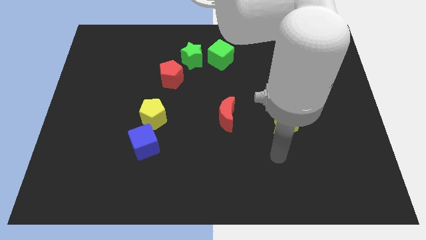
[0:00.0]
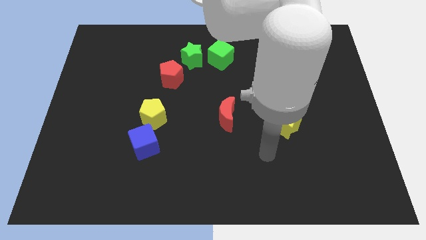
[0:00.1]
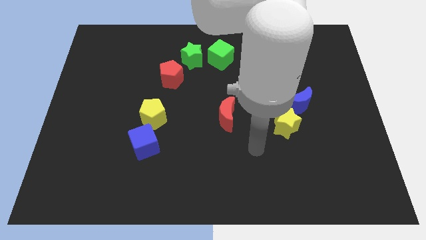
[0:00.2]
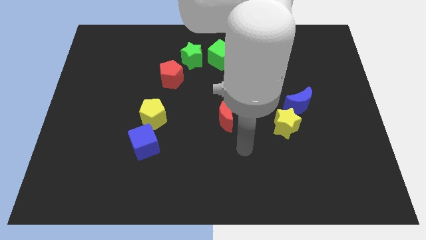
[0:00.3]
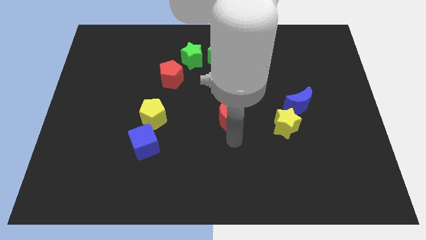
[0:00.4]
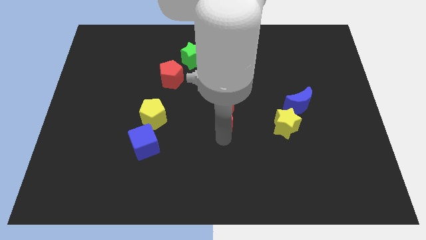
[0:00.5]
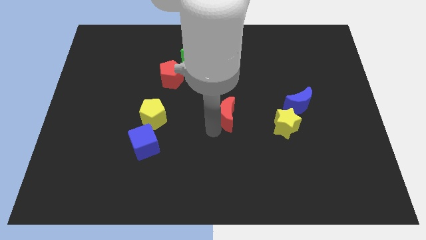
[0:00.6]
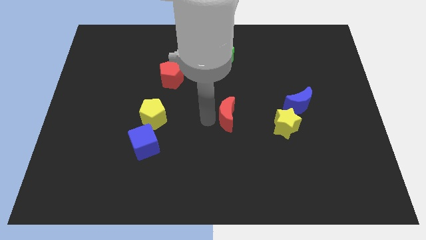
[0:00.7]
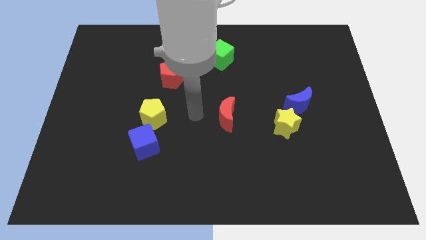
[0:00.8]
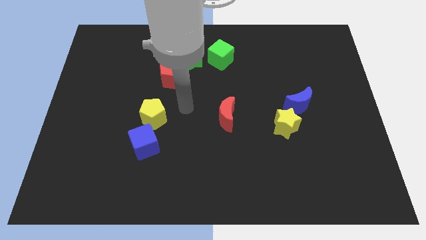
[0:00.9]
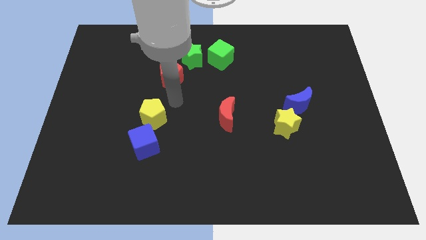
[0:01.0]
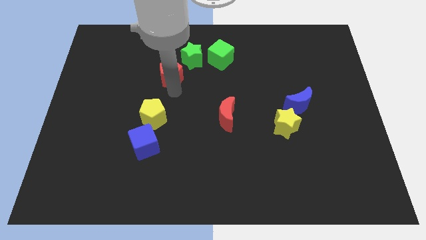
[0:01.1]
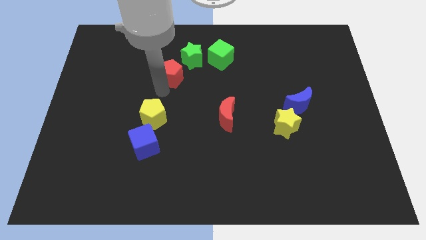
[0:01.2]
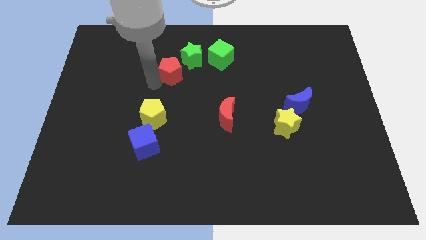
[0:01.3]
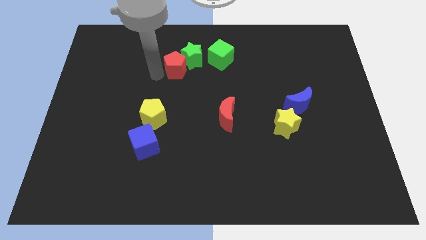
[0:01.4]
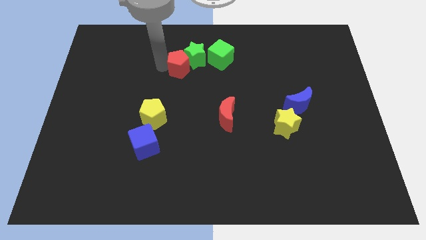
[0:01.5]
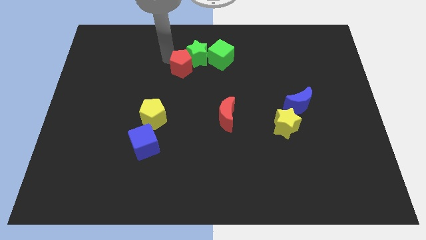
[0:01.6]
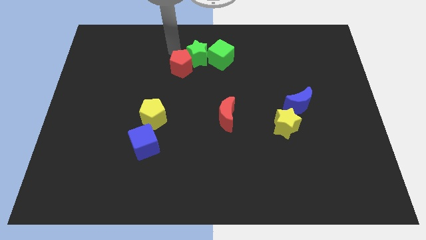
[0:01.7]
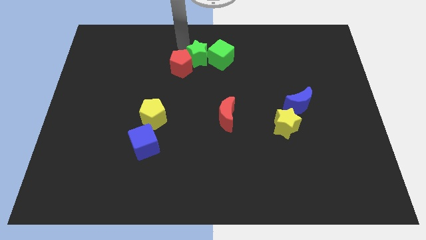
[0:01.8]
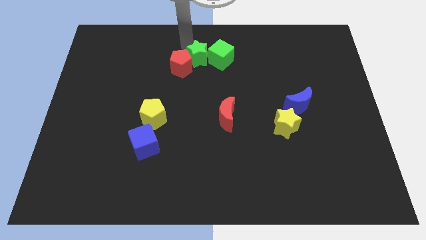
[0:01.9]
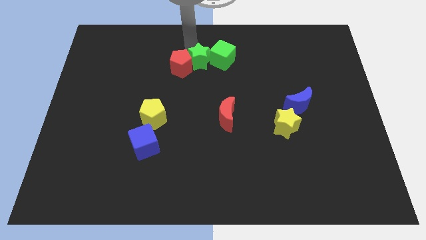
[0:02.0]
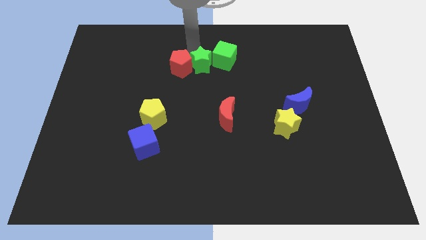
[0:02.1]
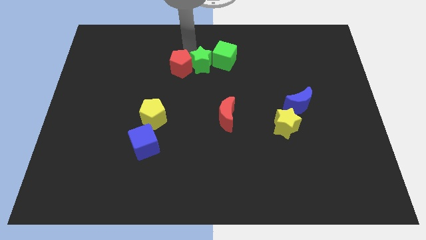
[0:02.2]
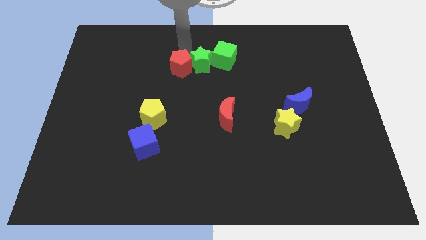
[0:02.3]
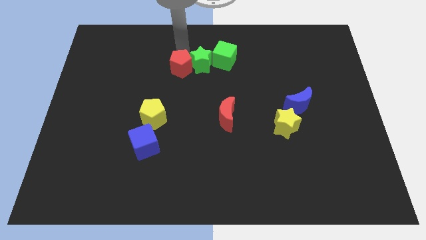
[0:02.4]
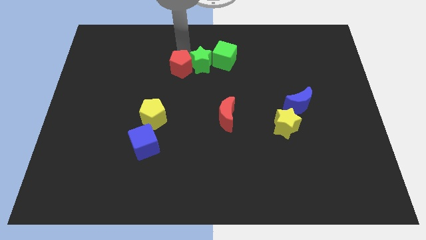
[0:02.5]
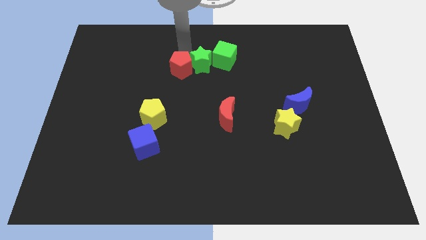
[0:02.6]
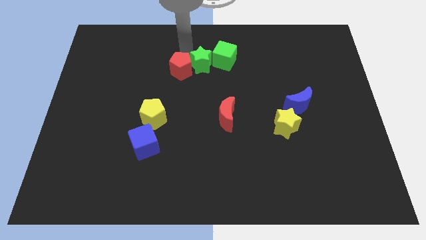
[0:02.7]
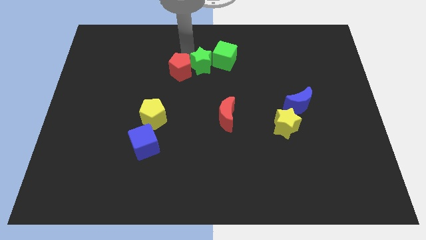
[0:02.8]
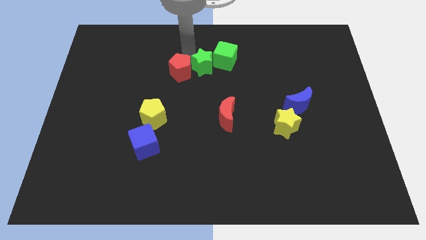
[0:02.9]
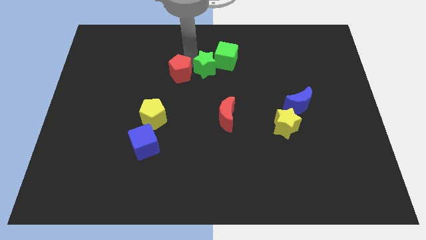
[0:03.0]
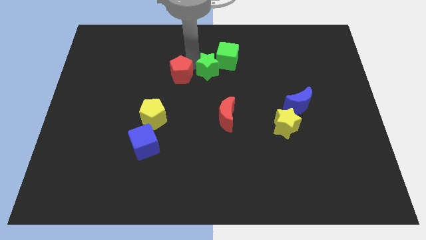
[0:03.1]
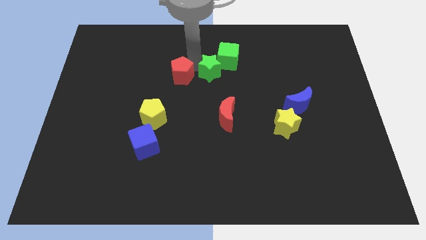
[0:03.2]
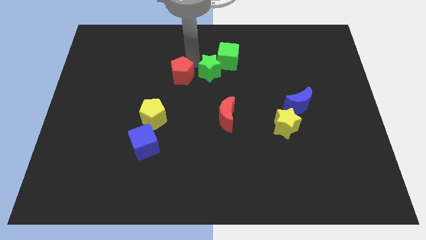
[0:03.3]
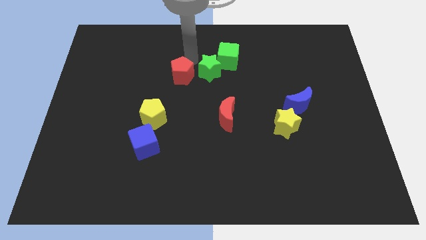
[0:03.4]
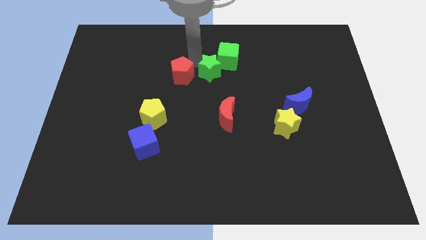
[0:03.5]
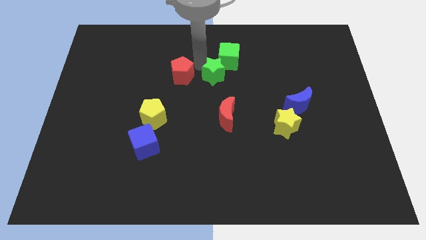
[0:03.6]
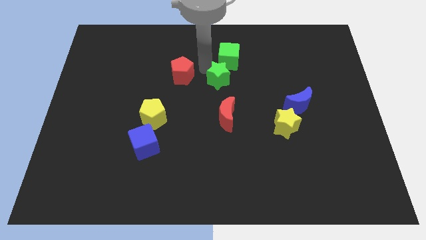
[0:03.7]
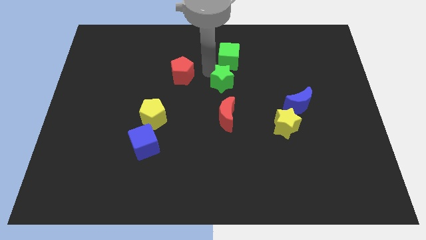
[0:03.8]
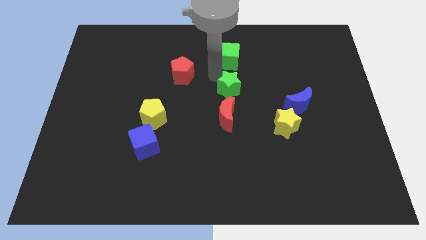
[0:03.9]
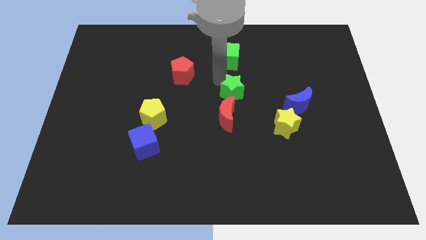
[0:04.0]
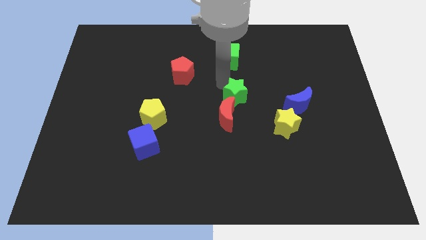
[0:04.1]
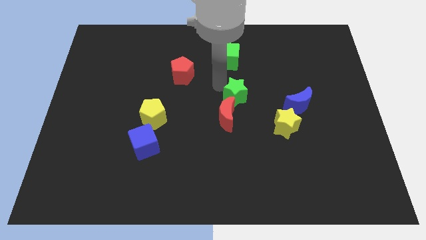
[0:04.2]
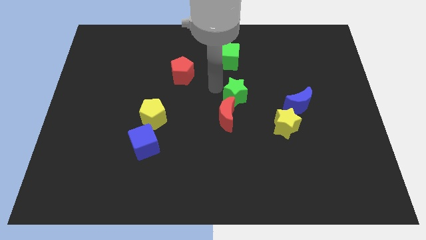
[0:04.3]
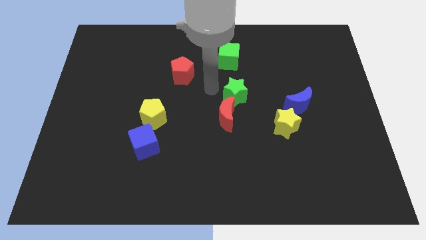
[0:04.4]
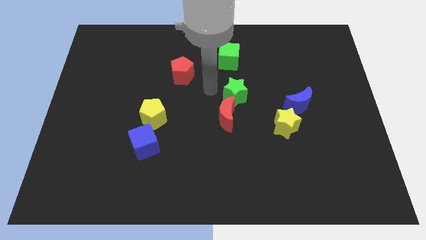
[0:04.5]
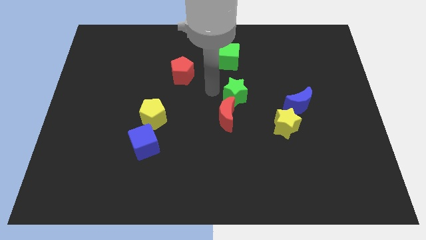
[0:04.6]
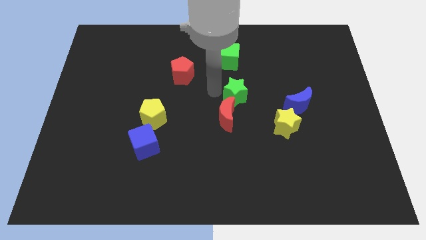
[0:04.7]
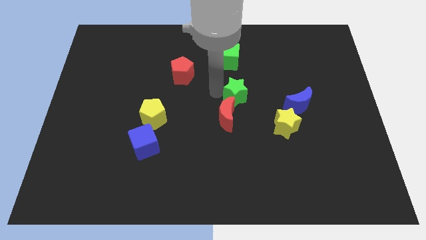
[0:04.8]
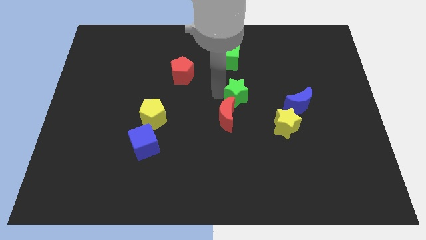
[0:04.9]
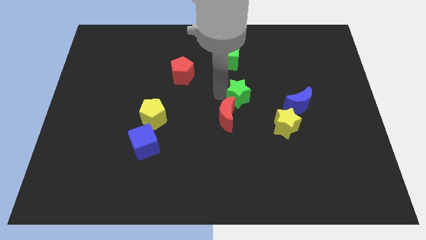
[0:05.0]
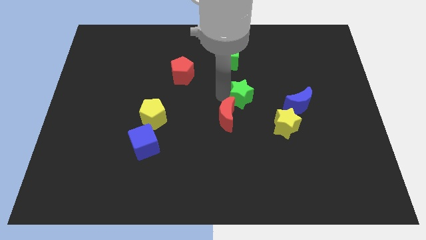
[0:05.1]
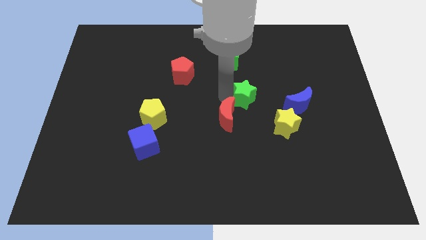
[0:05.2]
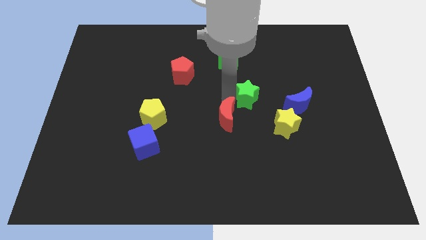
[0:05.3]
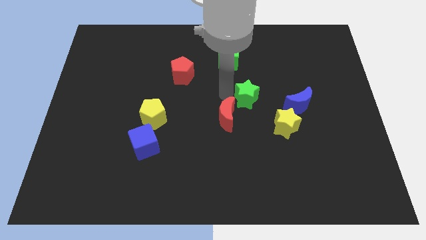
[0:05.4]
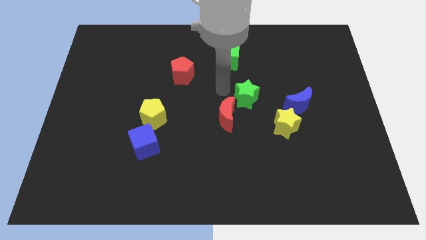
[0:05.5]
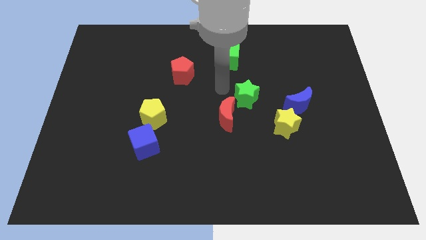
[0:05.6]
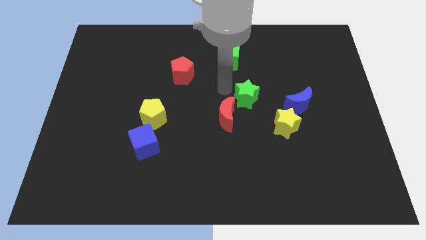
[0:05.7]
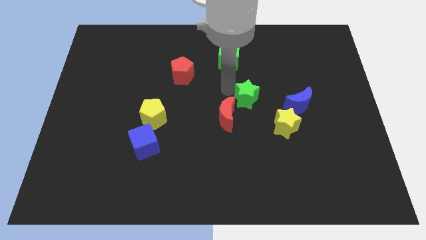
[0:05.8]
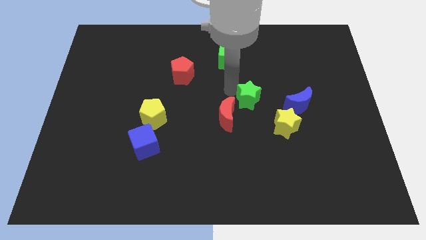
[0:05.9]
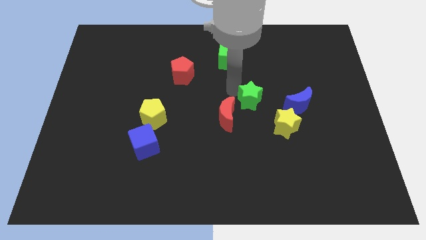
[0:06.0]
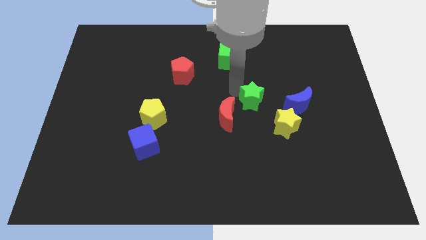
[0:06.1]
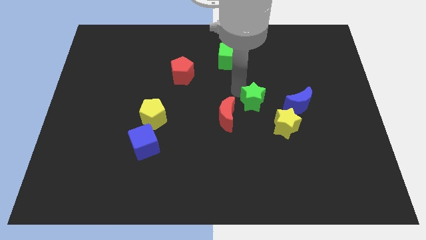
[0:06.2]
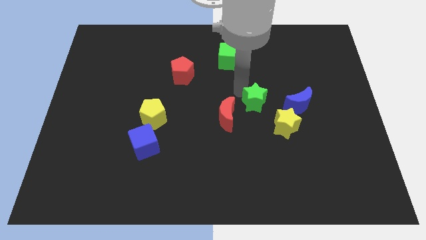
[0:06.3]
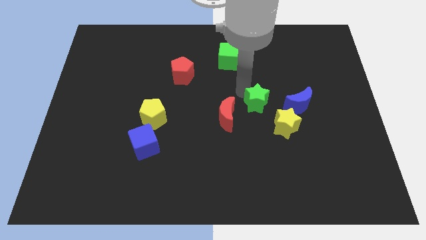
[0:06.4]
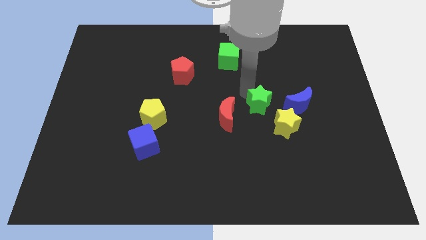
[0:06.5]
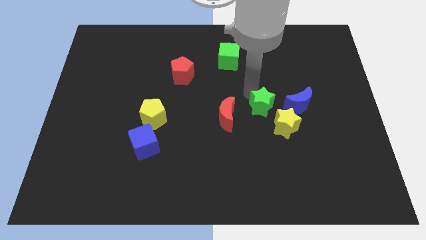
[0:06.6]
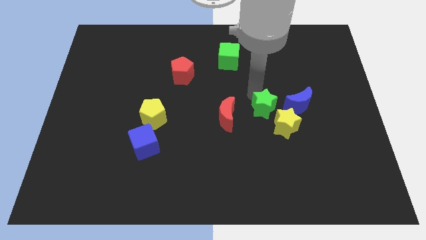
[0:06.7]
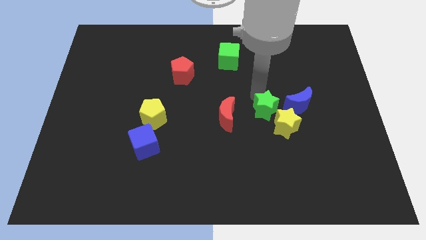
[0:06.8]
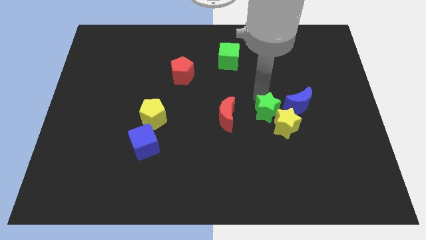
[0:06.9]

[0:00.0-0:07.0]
put the green star towards the yellow star
